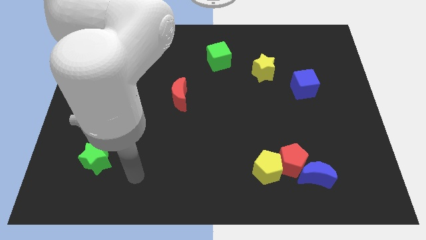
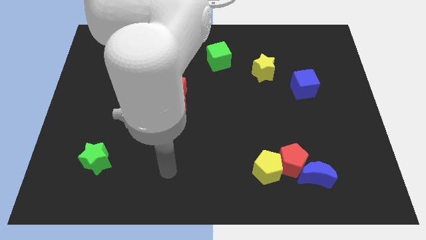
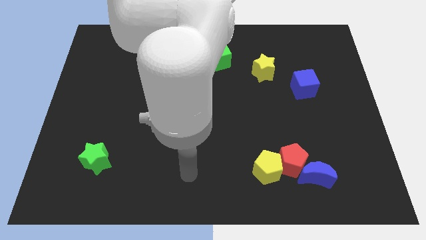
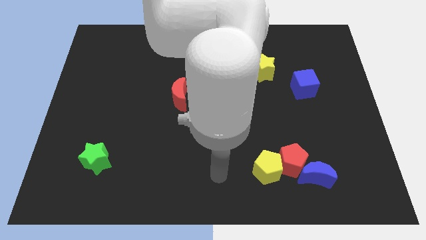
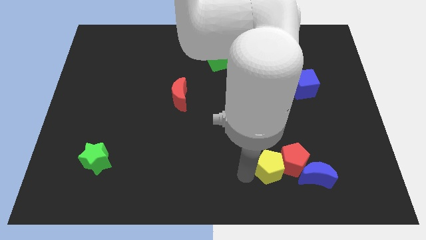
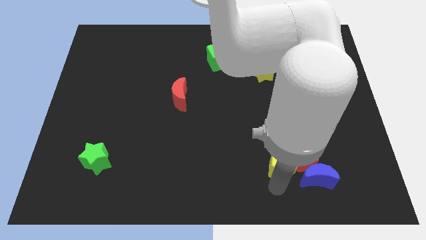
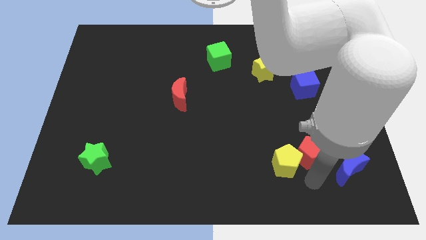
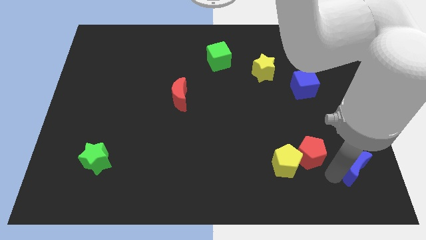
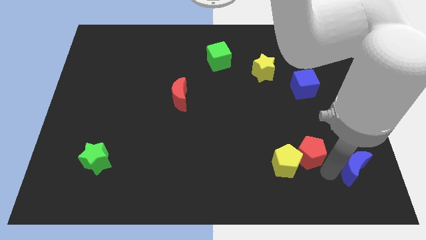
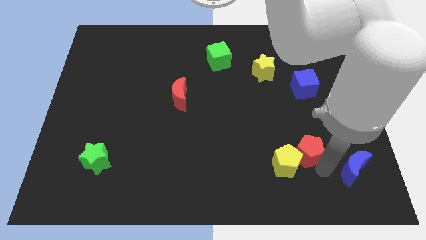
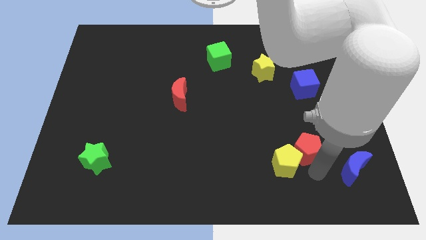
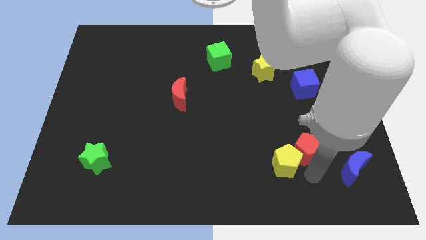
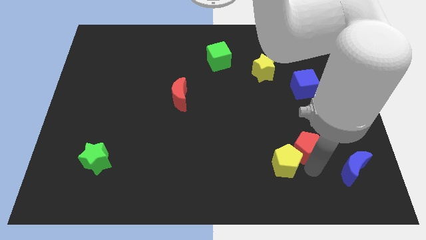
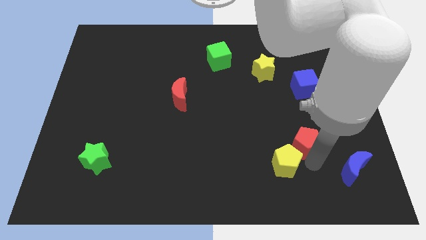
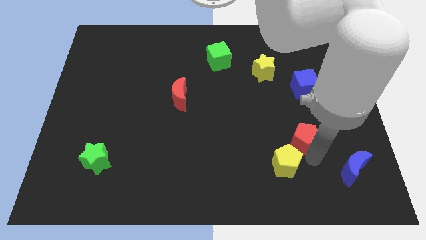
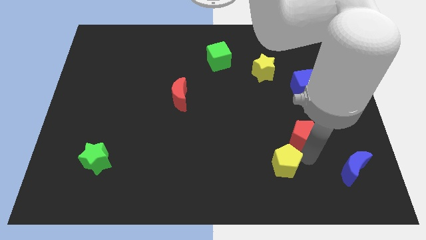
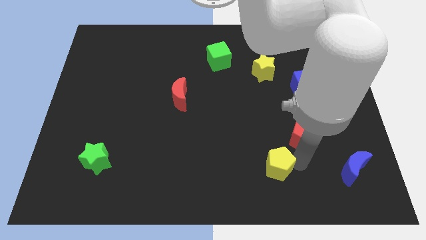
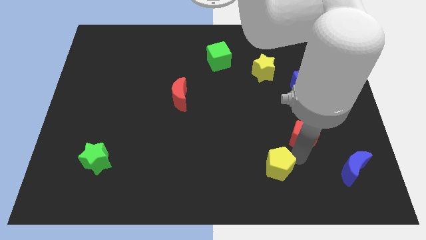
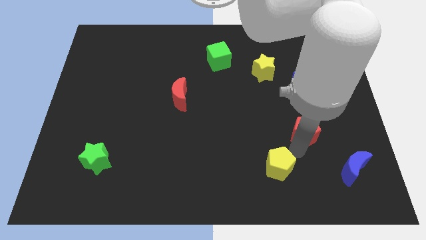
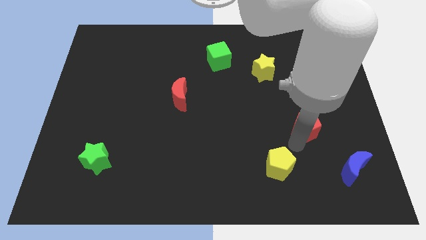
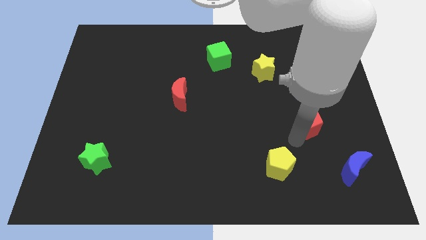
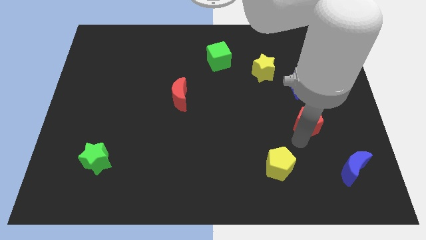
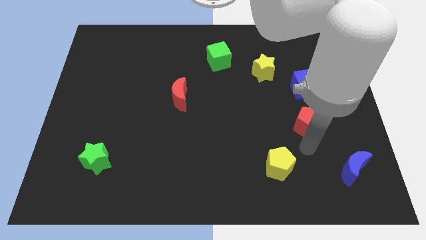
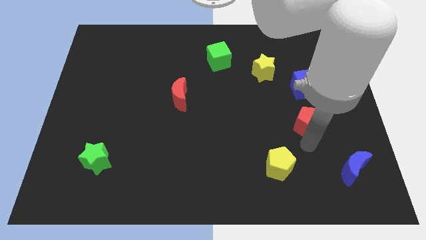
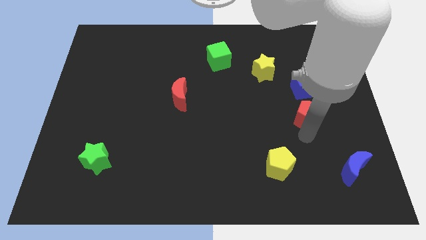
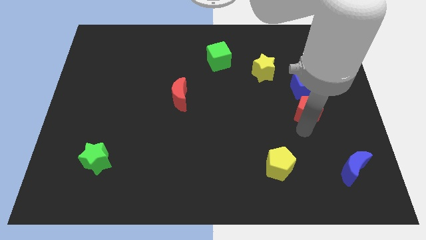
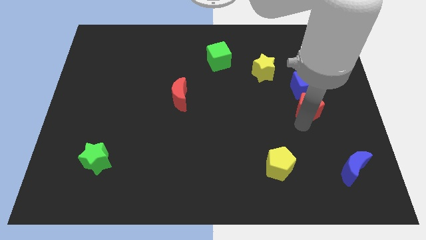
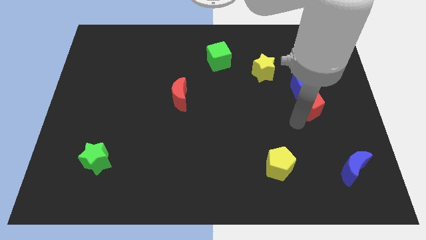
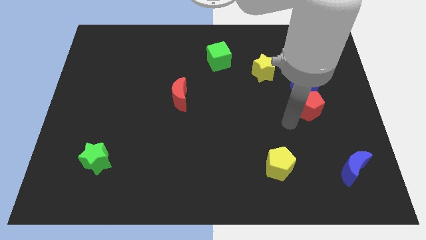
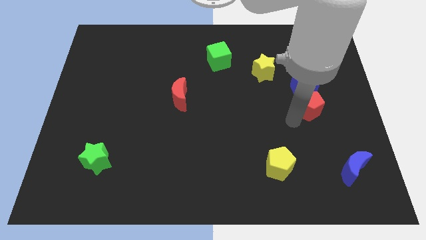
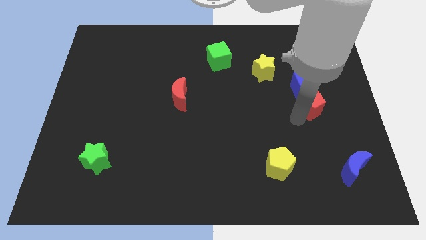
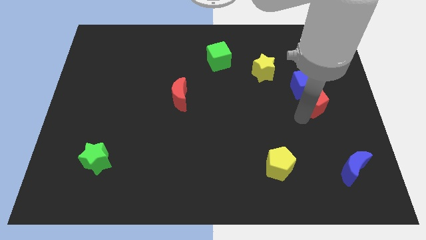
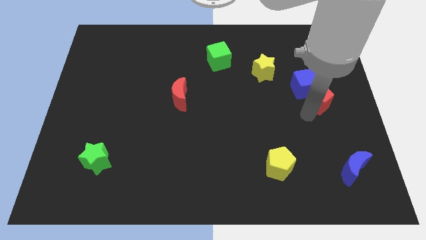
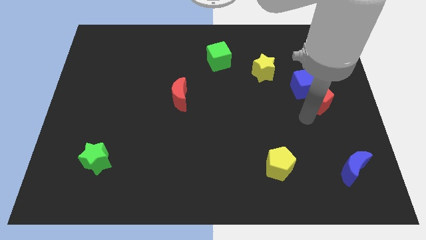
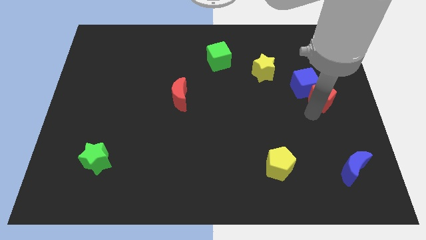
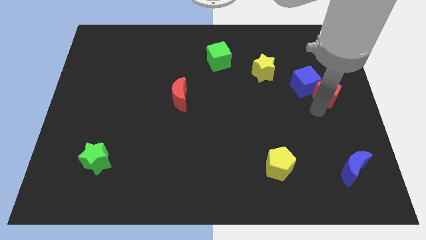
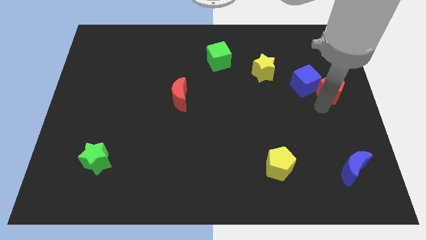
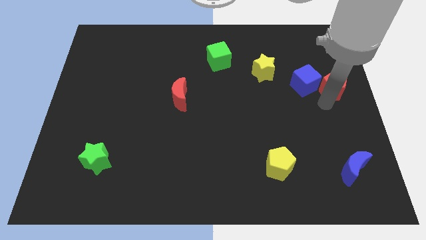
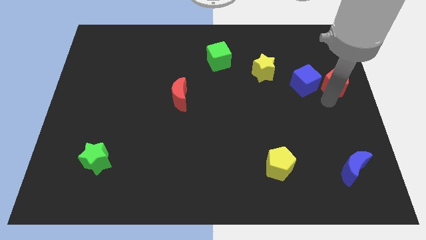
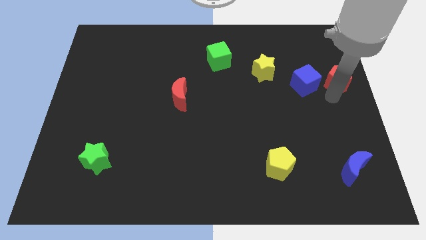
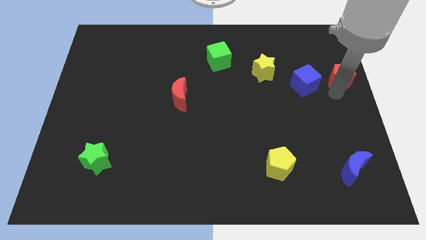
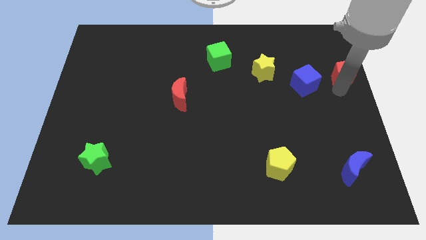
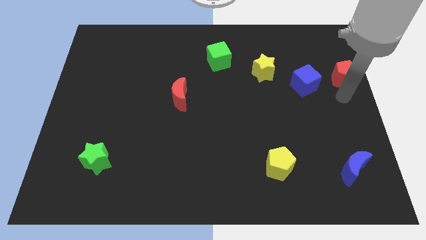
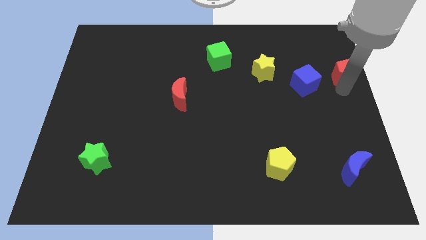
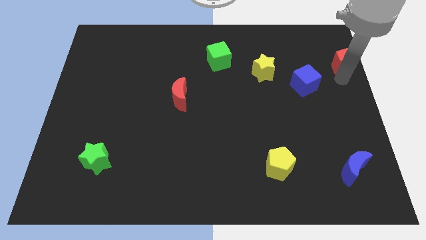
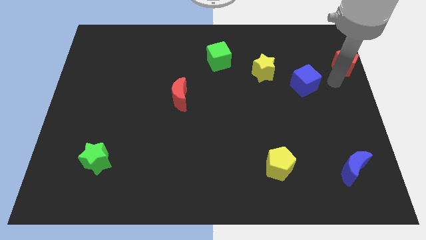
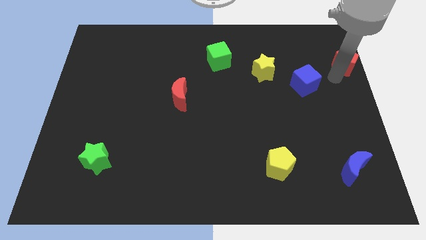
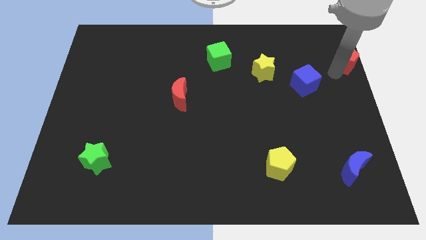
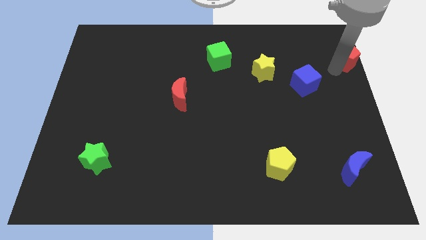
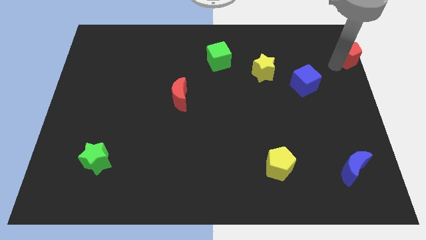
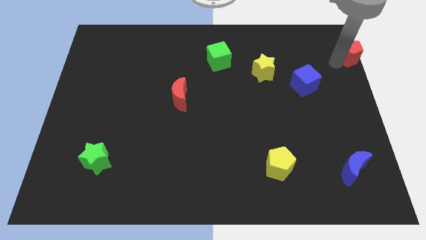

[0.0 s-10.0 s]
push the red pentagon to the top right

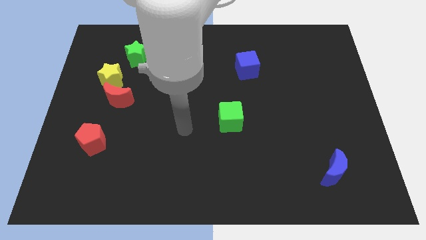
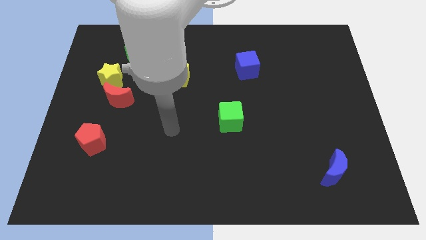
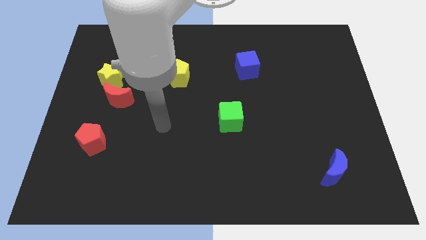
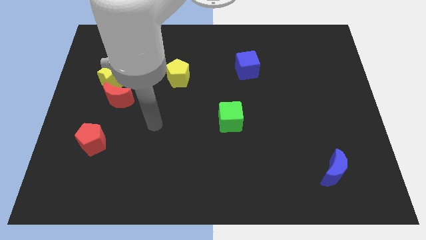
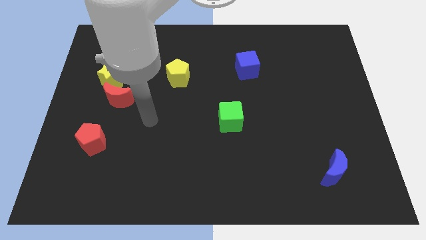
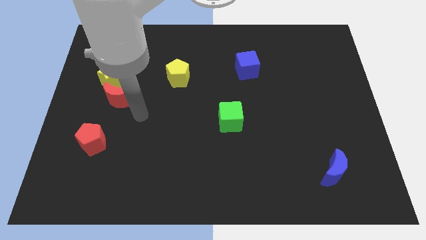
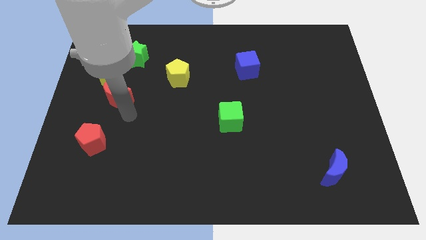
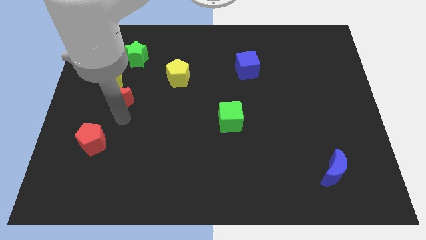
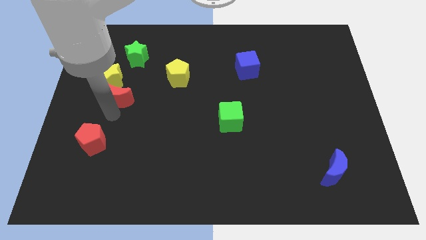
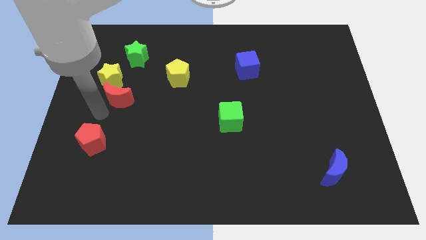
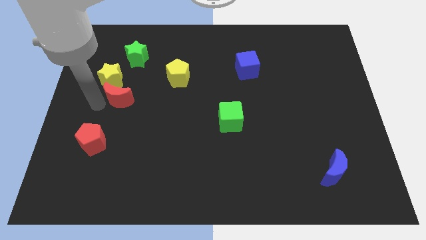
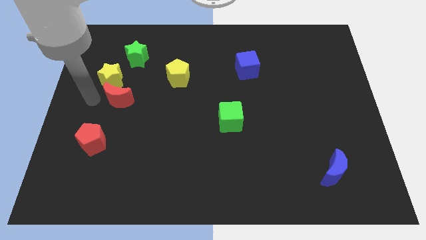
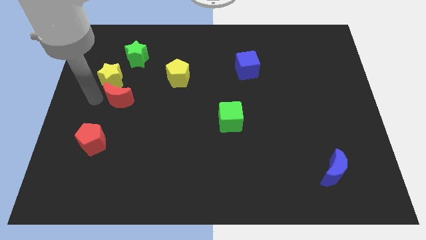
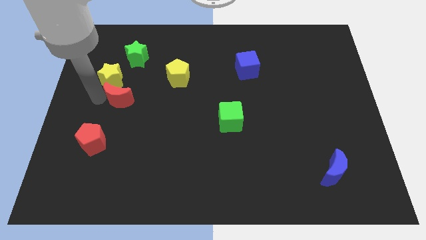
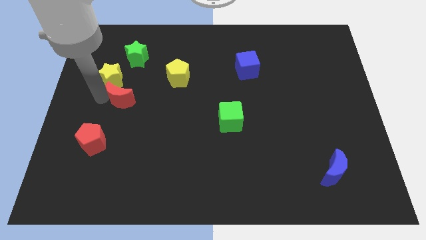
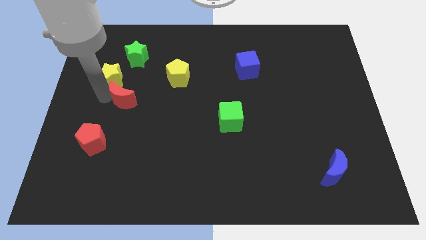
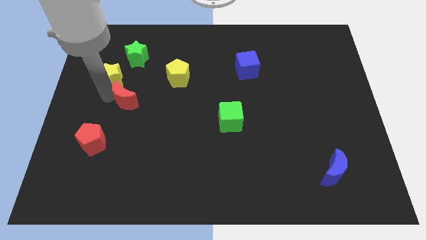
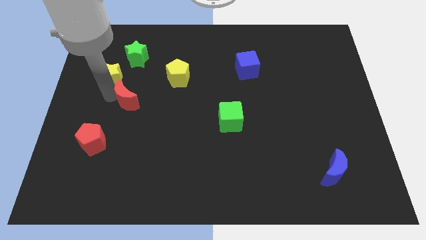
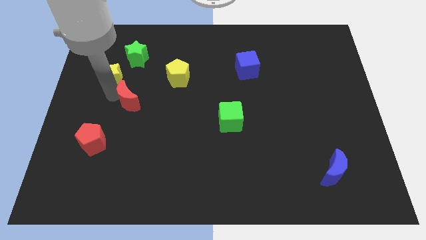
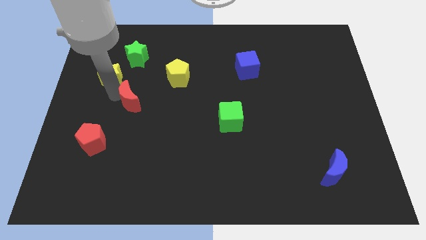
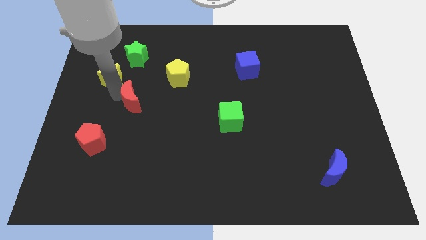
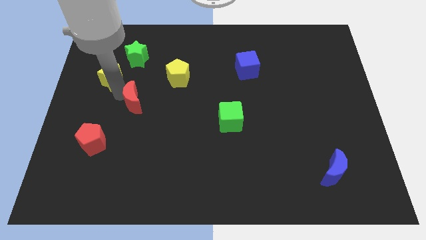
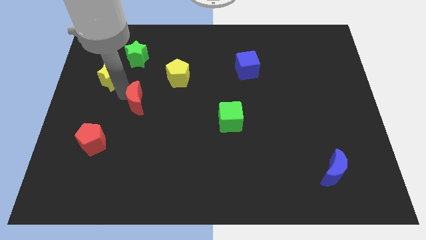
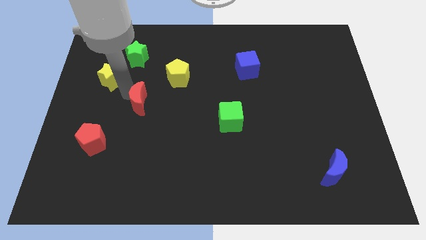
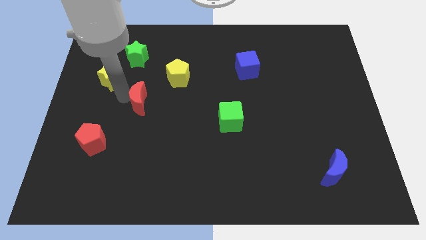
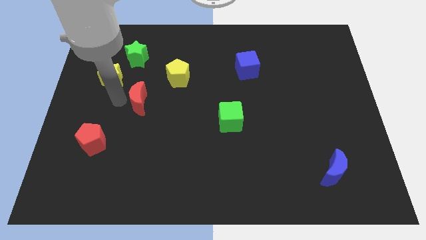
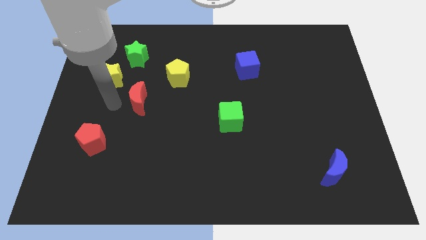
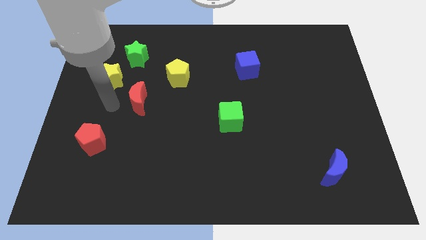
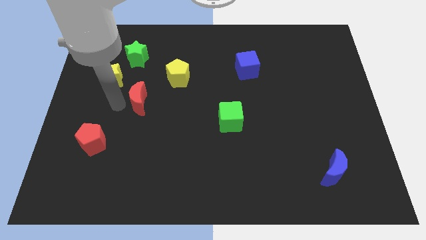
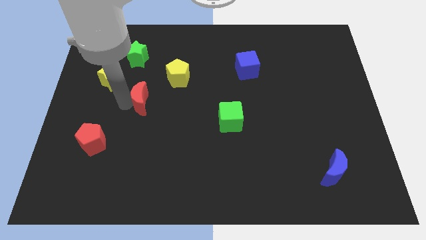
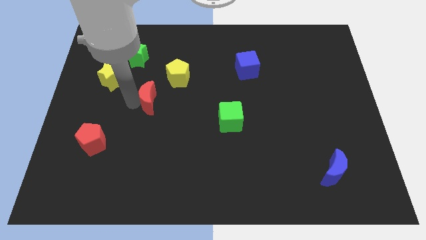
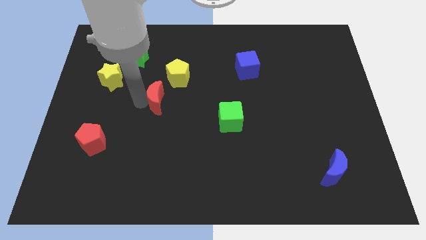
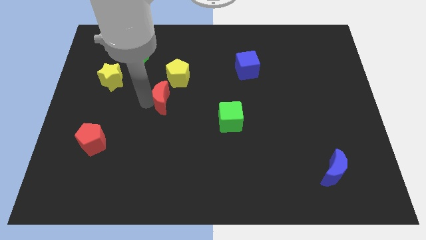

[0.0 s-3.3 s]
move the red moon to the center of the board
